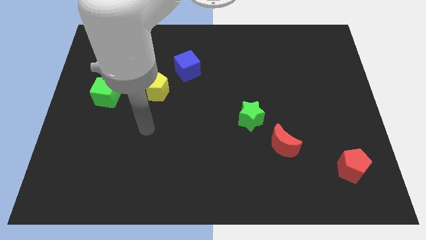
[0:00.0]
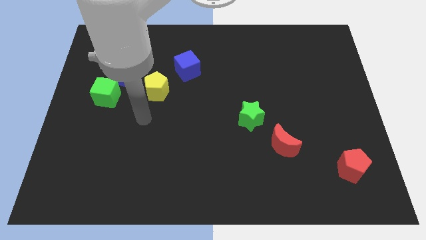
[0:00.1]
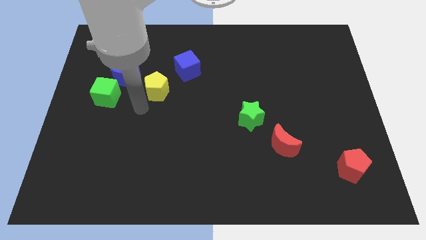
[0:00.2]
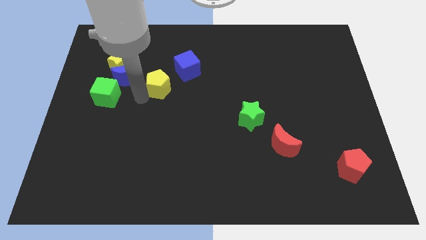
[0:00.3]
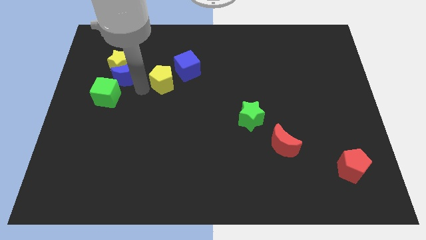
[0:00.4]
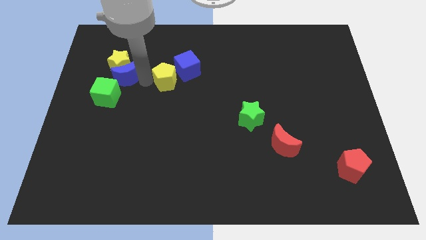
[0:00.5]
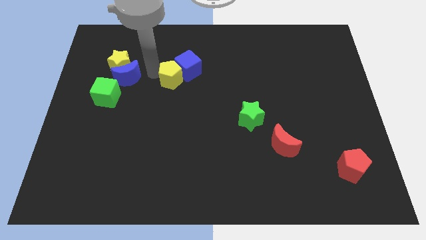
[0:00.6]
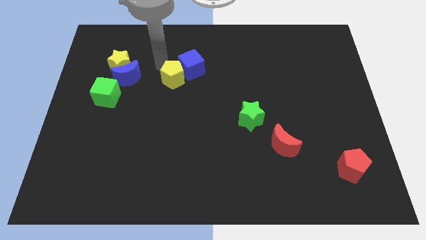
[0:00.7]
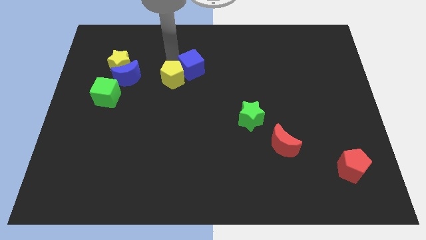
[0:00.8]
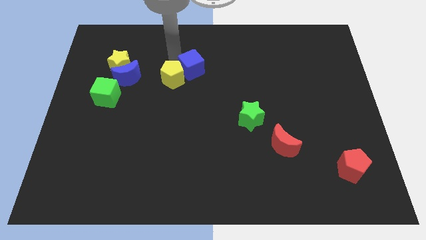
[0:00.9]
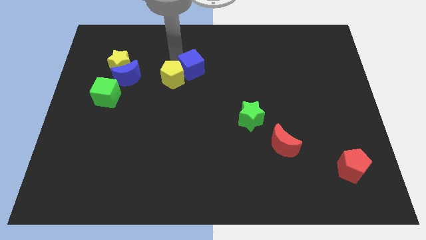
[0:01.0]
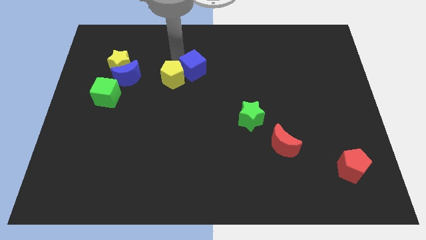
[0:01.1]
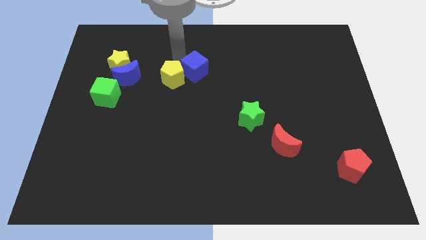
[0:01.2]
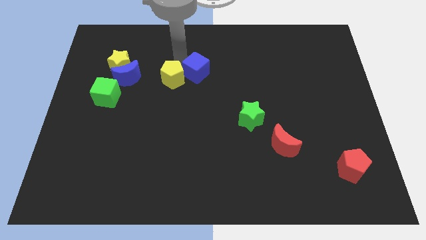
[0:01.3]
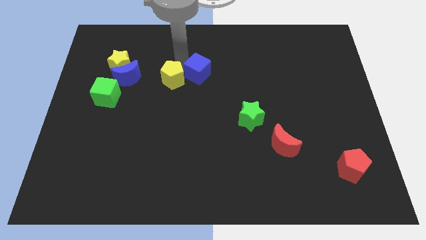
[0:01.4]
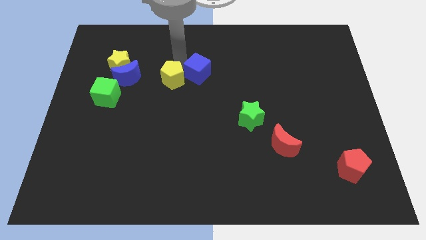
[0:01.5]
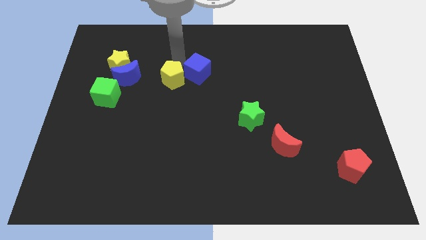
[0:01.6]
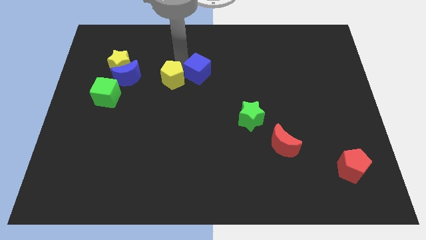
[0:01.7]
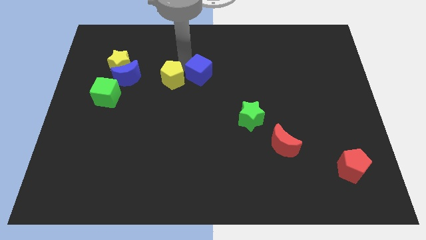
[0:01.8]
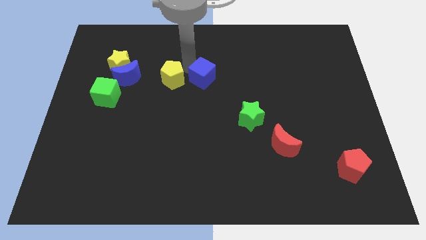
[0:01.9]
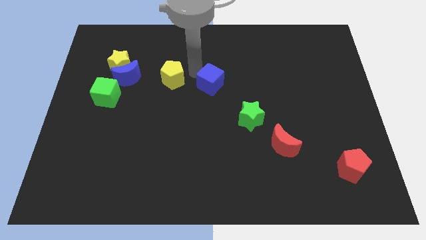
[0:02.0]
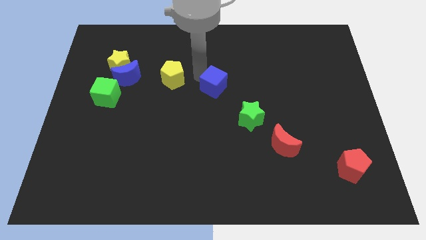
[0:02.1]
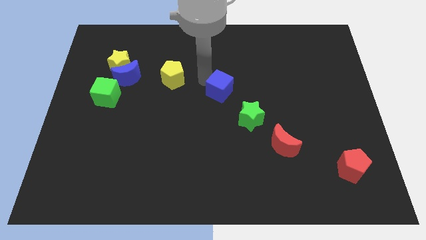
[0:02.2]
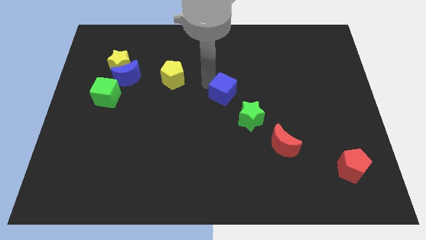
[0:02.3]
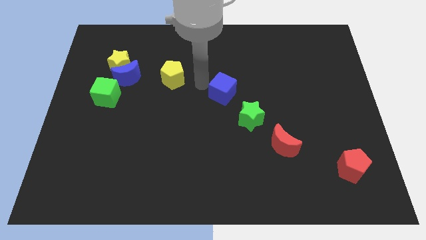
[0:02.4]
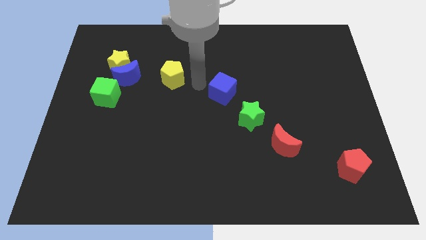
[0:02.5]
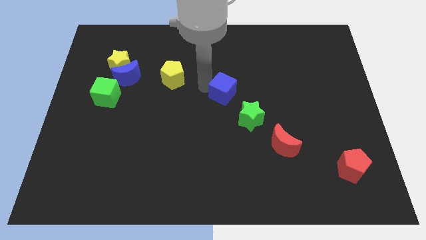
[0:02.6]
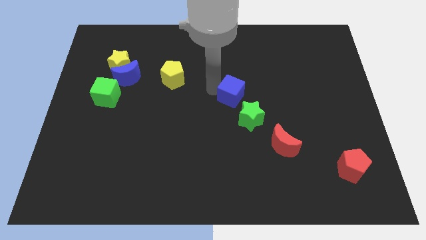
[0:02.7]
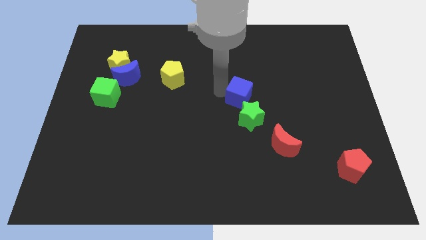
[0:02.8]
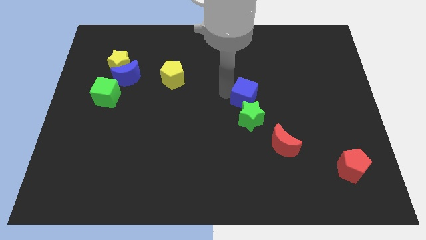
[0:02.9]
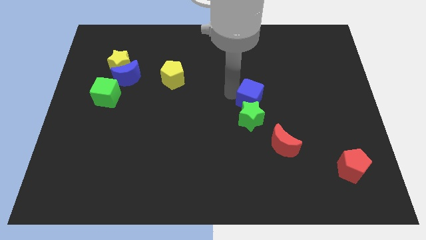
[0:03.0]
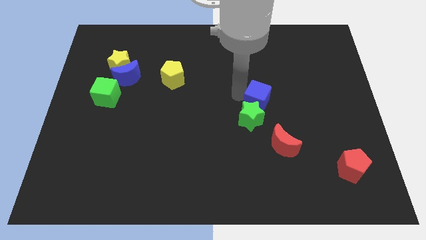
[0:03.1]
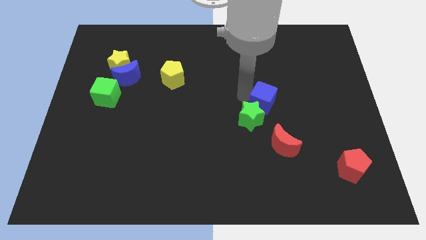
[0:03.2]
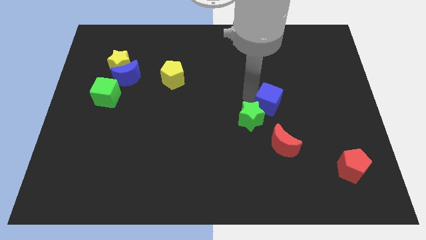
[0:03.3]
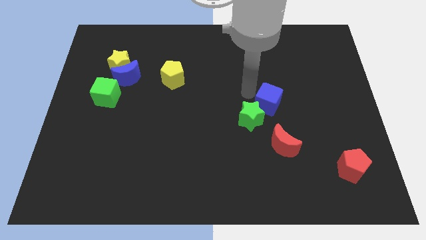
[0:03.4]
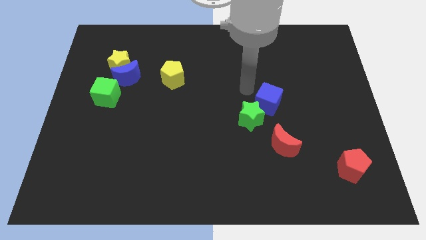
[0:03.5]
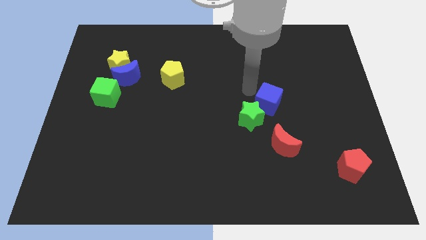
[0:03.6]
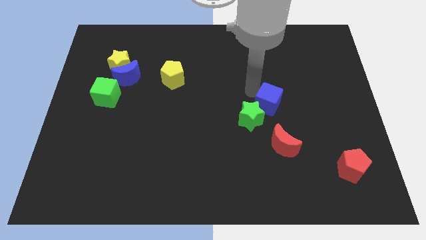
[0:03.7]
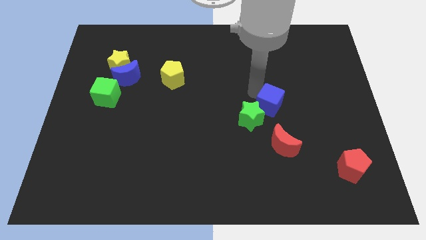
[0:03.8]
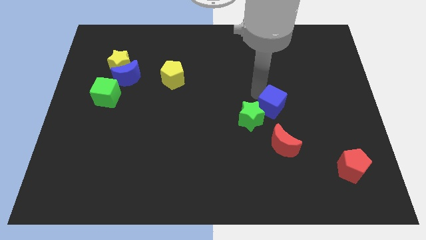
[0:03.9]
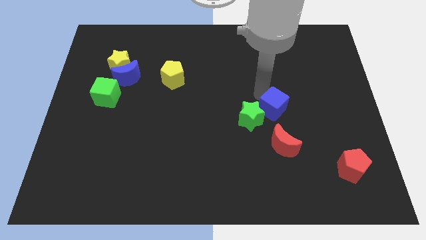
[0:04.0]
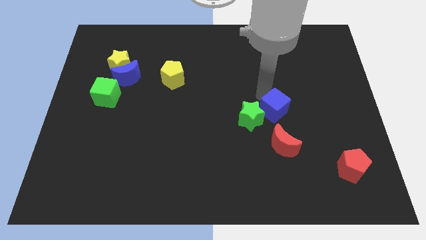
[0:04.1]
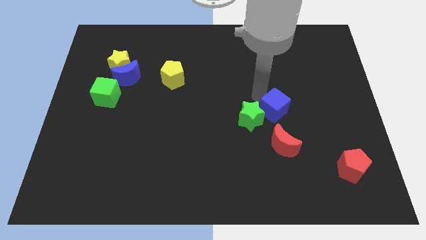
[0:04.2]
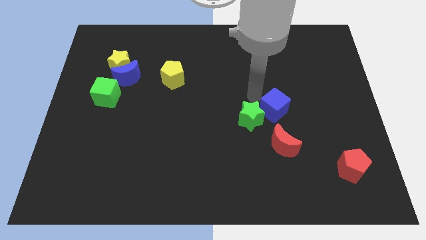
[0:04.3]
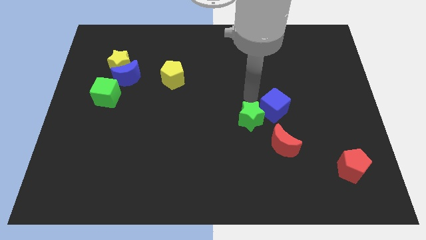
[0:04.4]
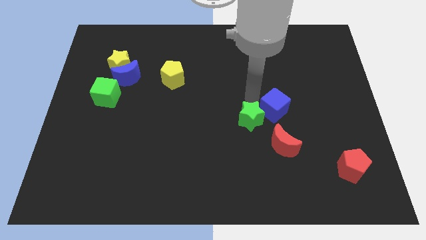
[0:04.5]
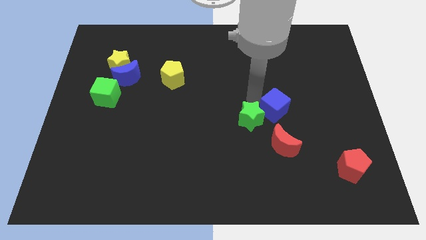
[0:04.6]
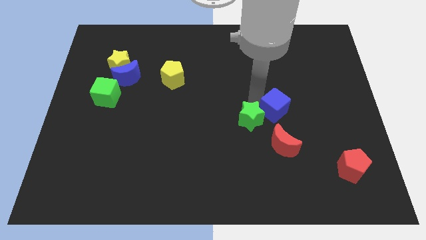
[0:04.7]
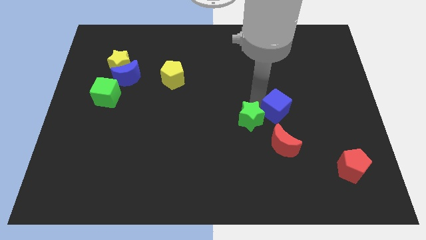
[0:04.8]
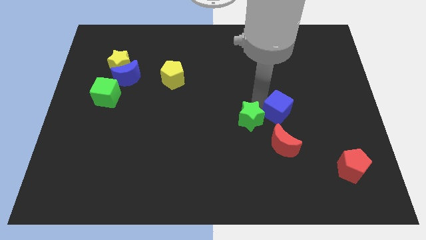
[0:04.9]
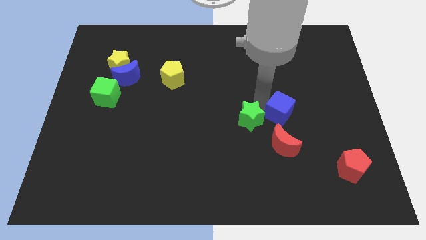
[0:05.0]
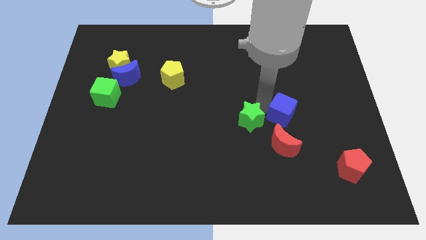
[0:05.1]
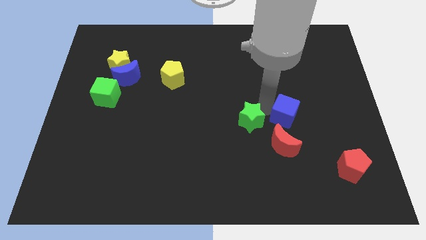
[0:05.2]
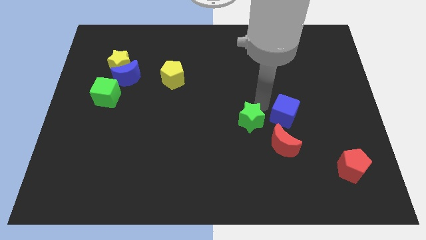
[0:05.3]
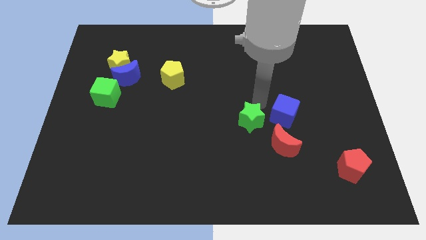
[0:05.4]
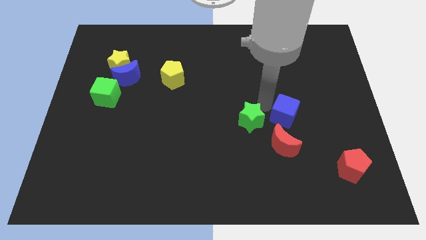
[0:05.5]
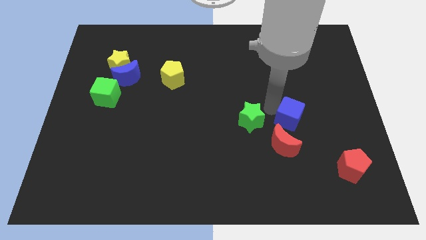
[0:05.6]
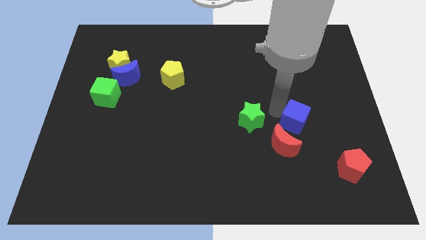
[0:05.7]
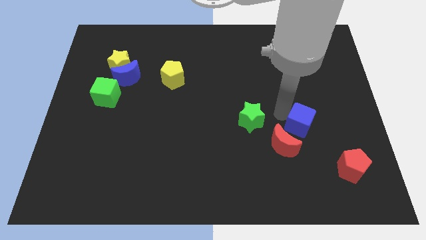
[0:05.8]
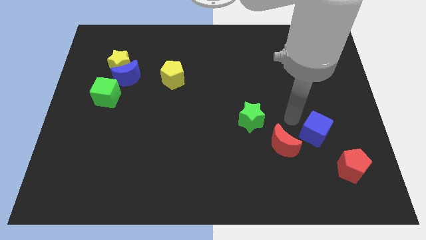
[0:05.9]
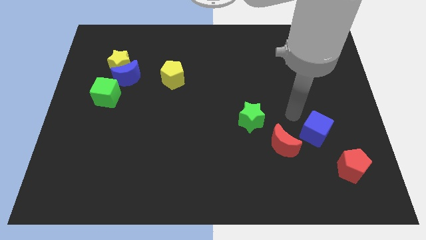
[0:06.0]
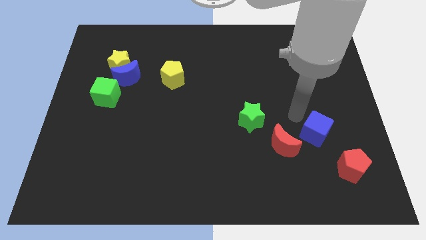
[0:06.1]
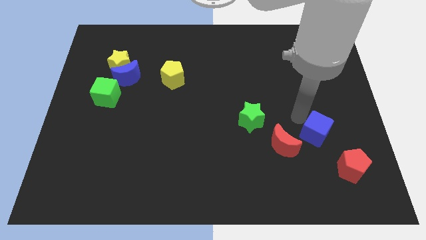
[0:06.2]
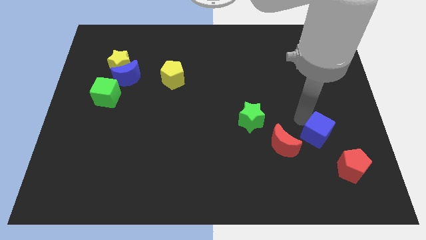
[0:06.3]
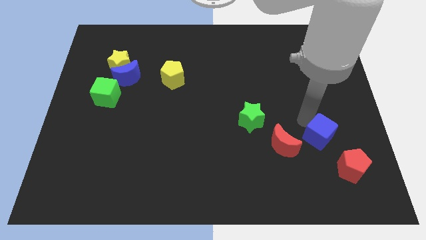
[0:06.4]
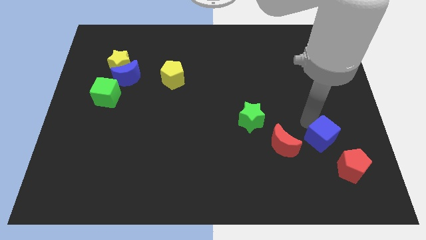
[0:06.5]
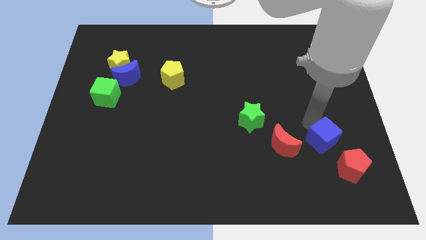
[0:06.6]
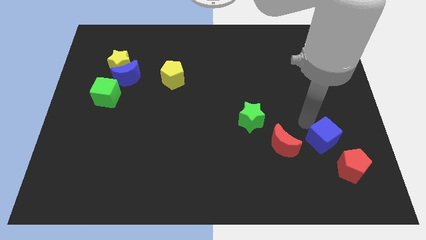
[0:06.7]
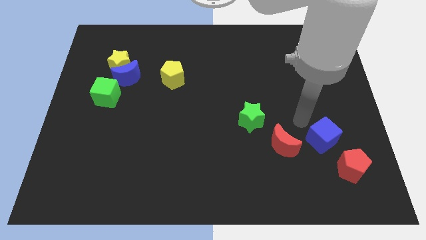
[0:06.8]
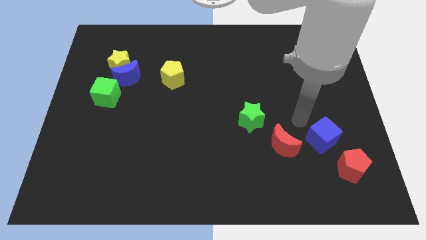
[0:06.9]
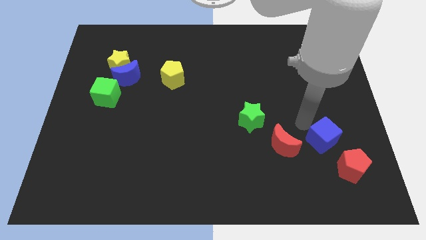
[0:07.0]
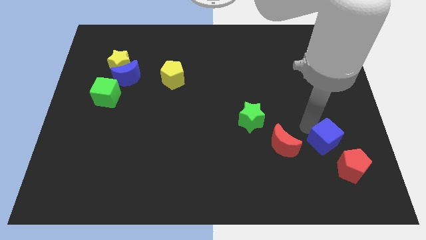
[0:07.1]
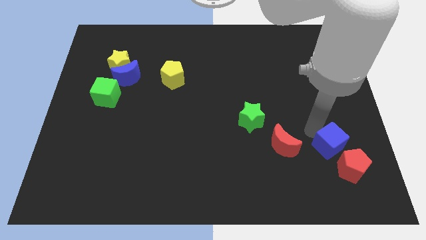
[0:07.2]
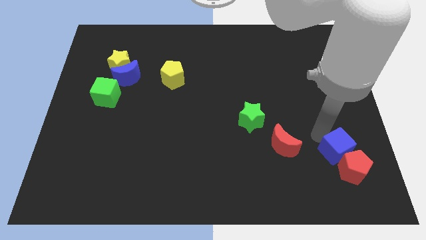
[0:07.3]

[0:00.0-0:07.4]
move the blue cube to the red pentagon
